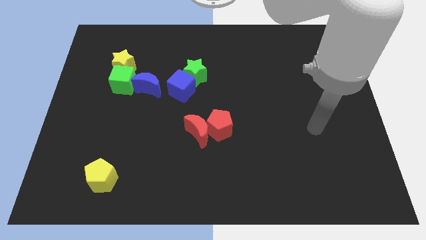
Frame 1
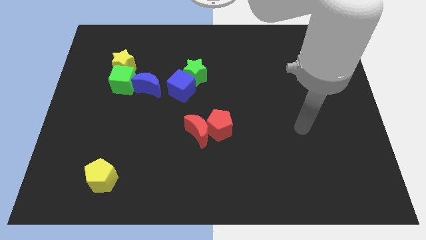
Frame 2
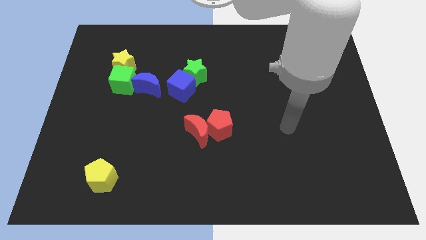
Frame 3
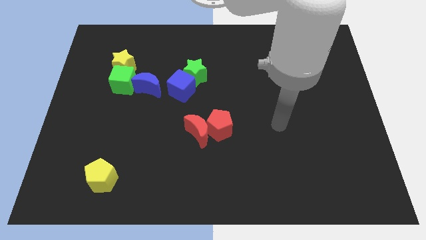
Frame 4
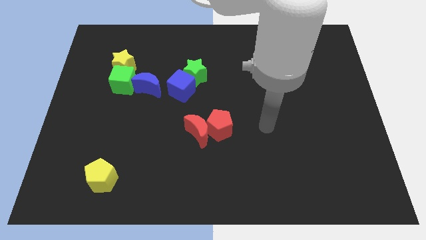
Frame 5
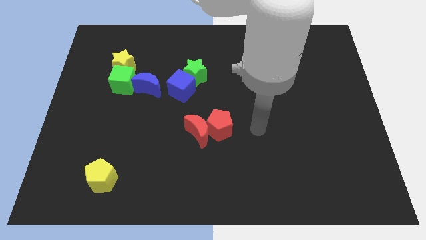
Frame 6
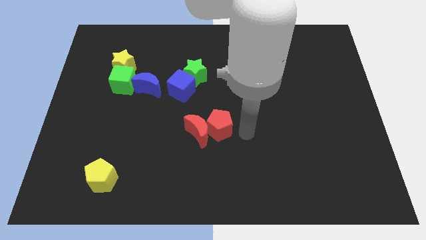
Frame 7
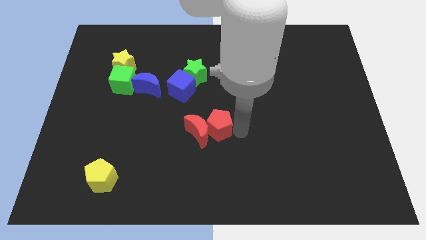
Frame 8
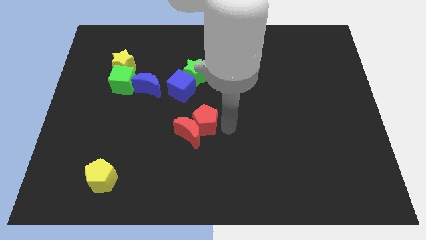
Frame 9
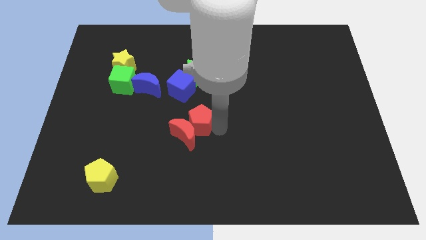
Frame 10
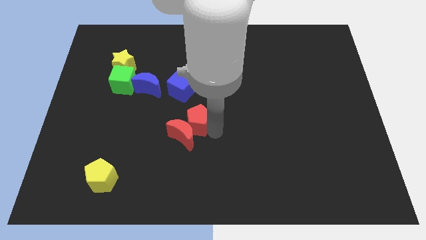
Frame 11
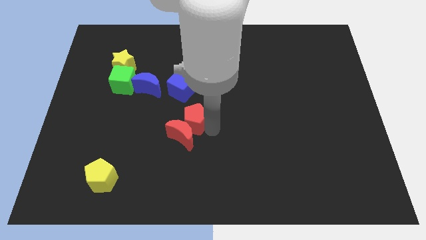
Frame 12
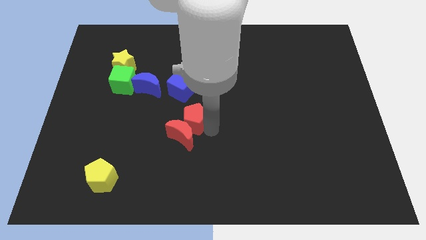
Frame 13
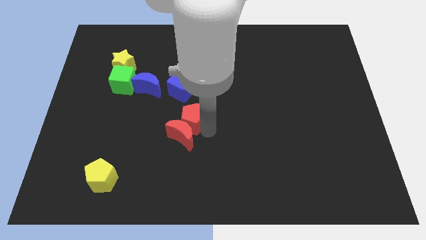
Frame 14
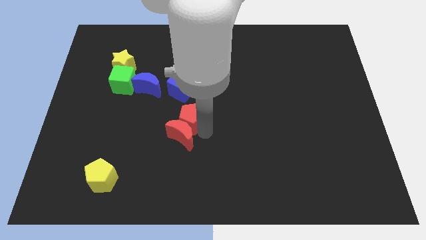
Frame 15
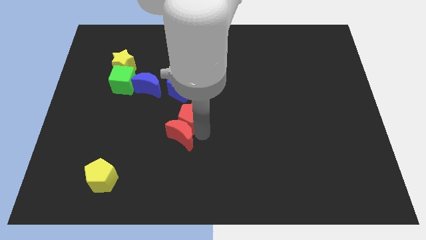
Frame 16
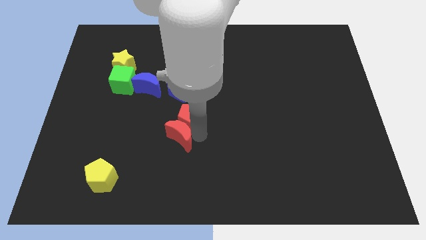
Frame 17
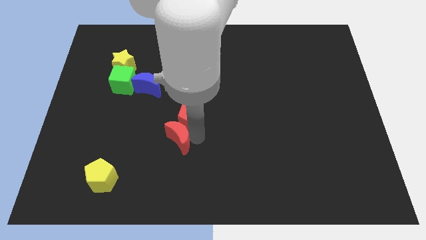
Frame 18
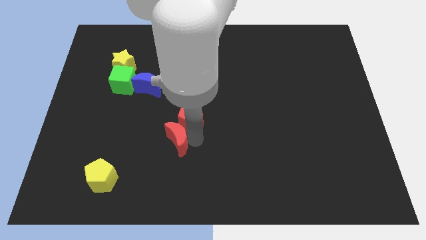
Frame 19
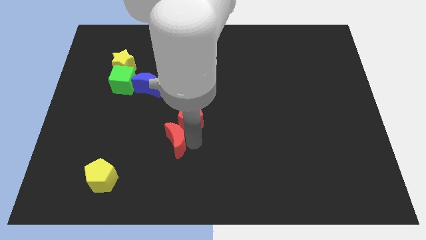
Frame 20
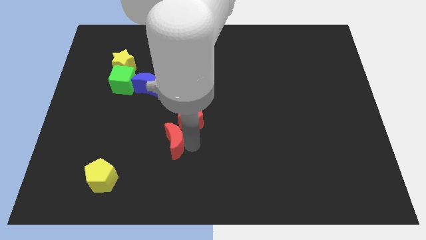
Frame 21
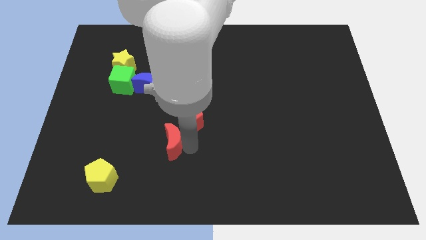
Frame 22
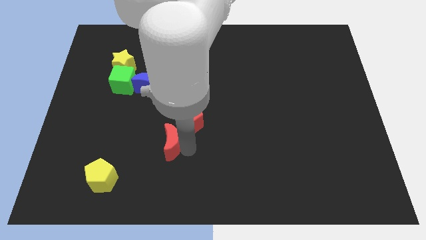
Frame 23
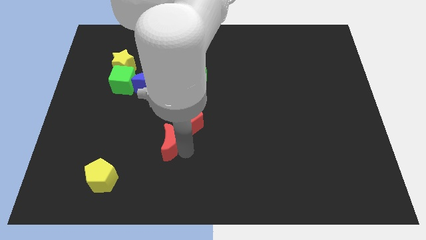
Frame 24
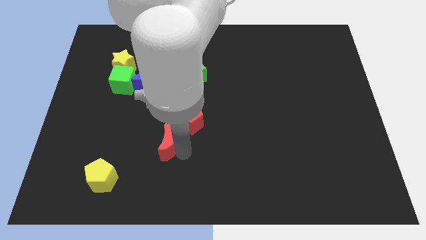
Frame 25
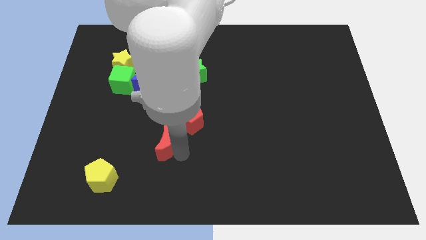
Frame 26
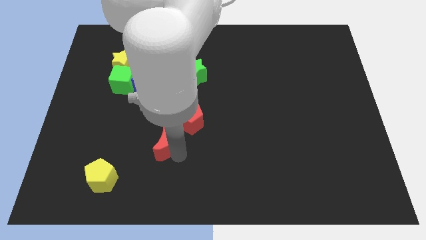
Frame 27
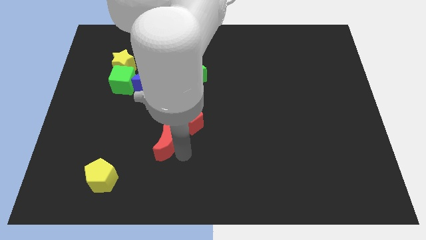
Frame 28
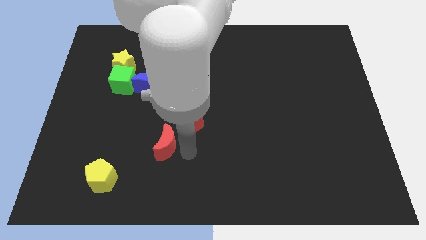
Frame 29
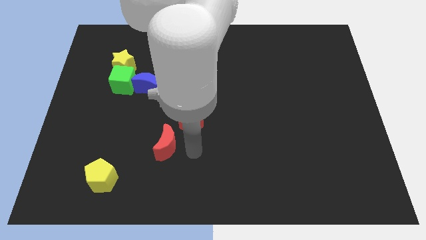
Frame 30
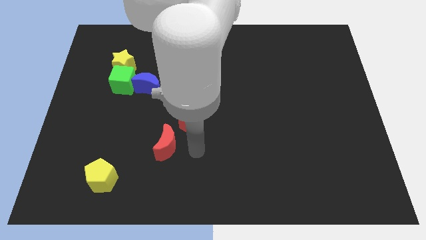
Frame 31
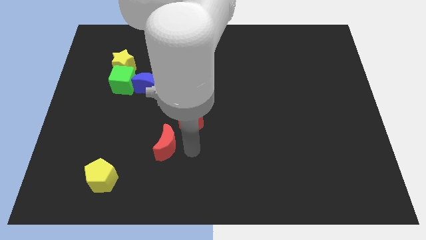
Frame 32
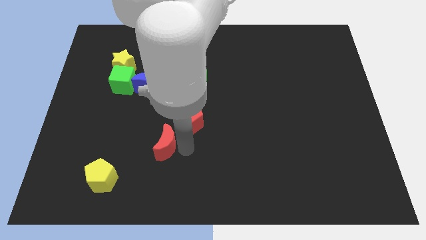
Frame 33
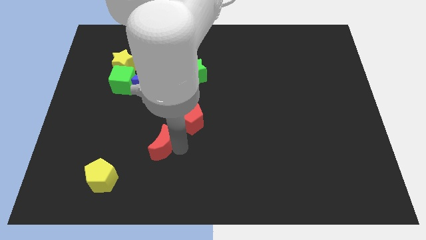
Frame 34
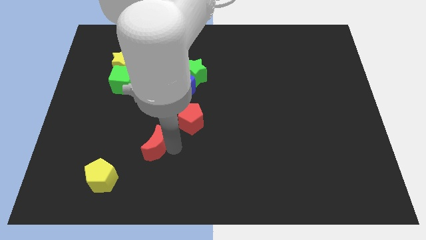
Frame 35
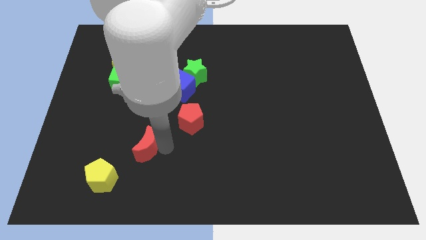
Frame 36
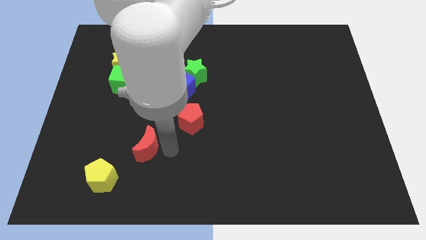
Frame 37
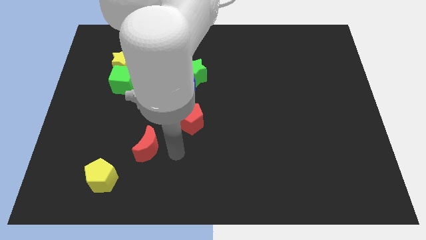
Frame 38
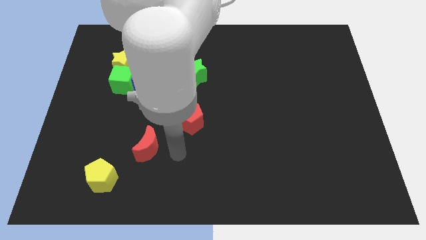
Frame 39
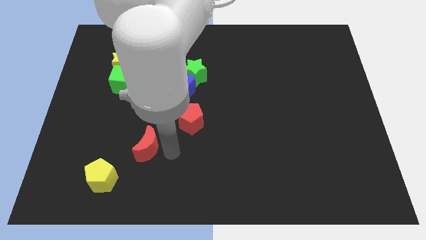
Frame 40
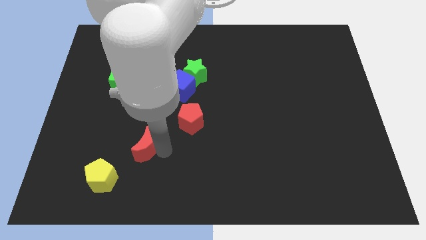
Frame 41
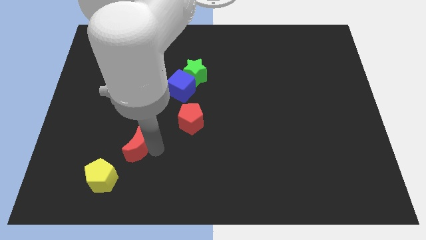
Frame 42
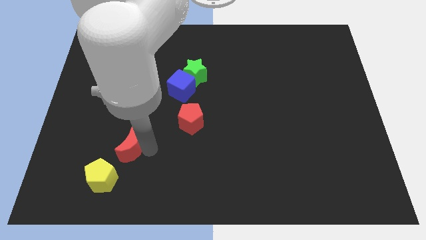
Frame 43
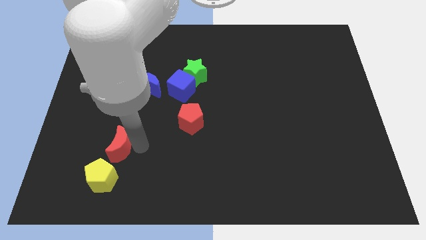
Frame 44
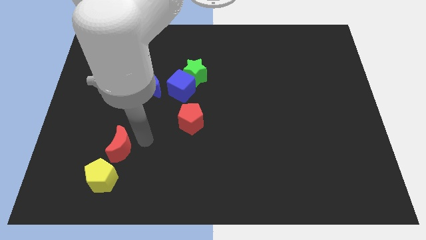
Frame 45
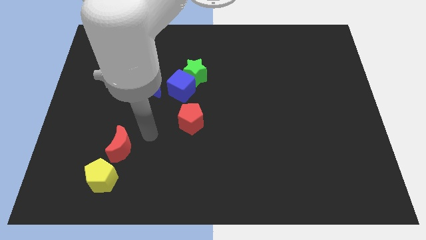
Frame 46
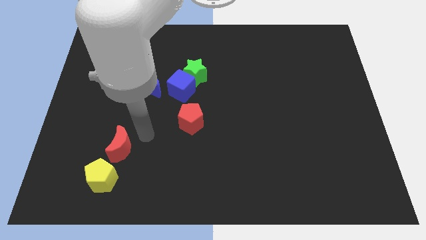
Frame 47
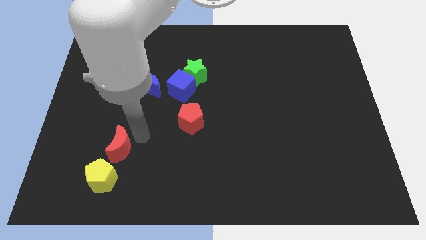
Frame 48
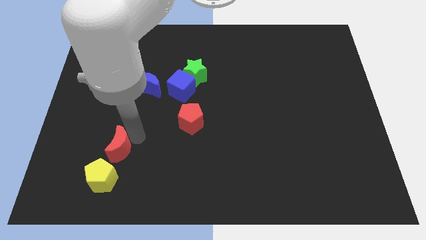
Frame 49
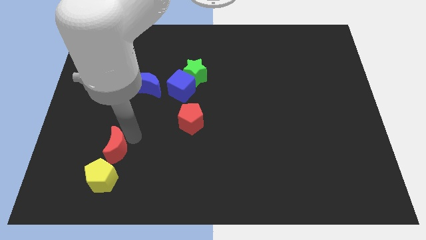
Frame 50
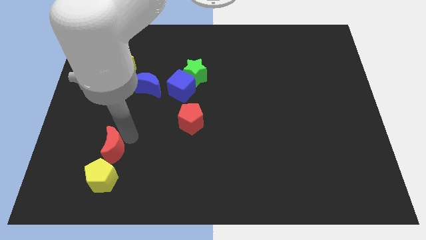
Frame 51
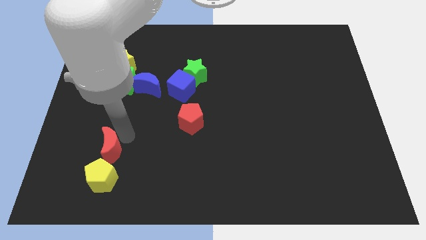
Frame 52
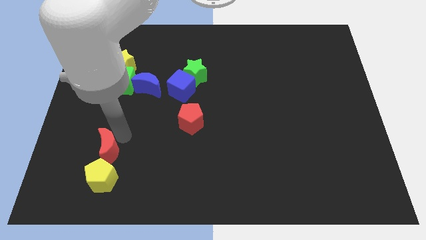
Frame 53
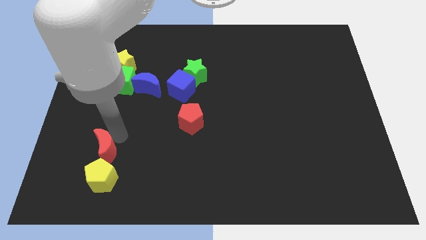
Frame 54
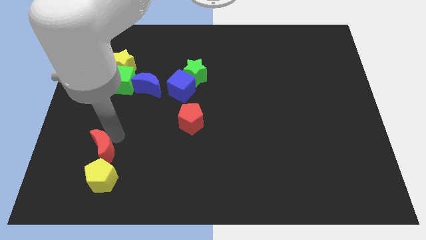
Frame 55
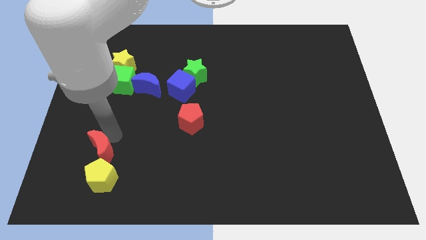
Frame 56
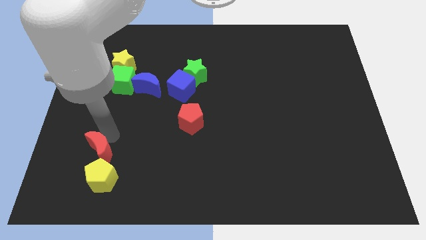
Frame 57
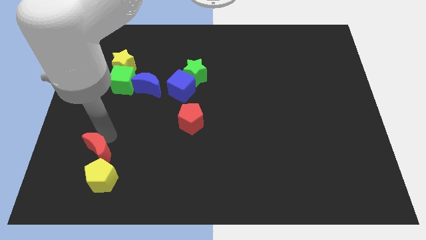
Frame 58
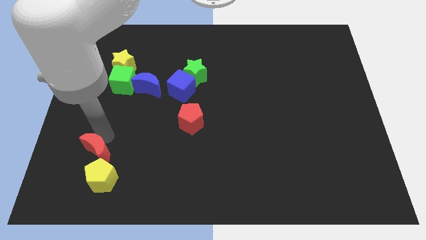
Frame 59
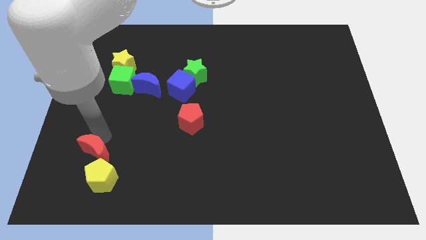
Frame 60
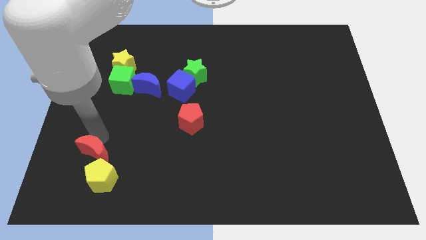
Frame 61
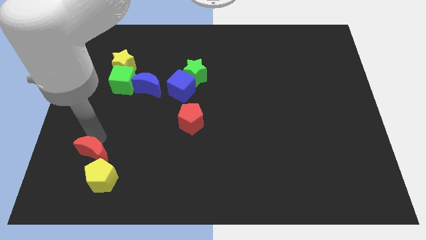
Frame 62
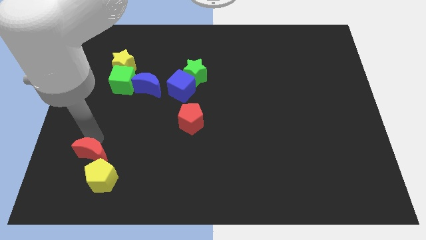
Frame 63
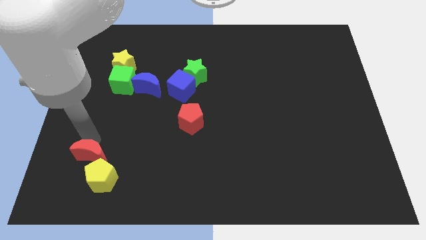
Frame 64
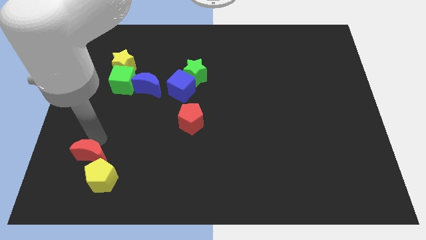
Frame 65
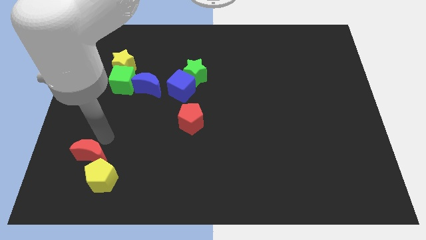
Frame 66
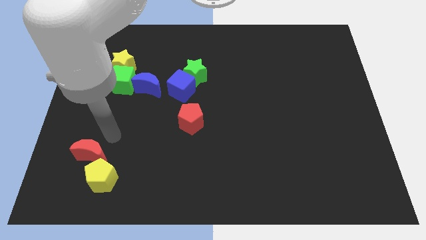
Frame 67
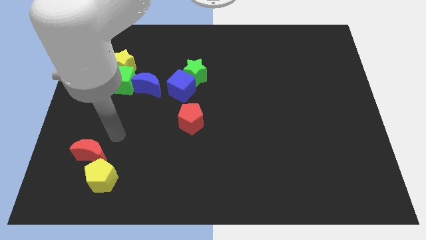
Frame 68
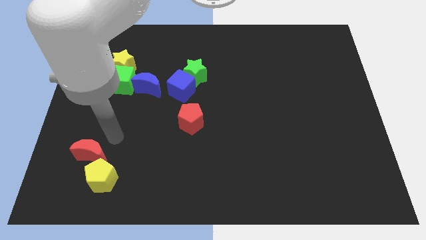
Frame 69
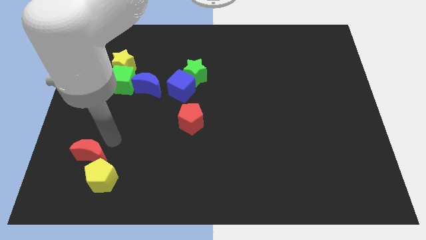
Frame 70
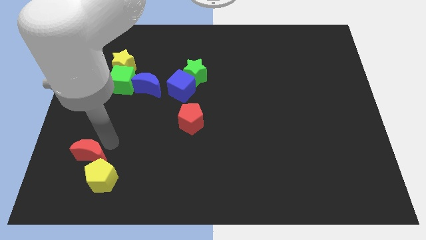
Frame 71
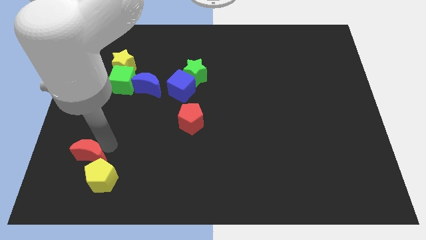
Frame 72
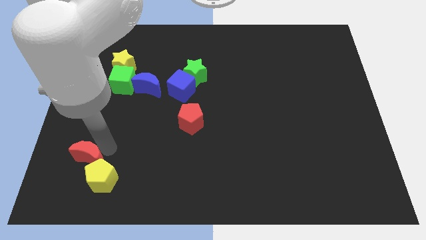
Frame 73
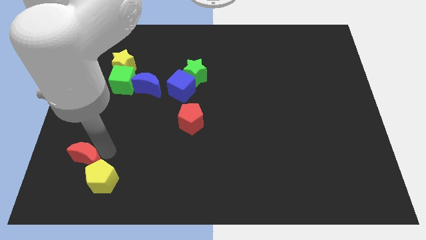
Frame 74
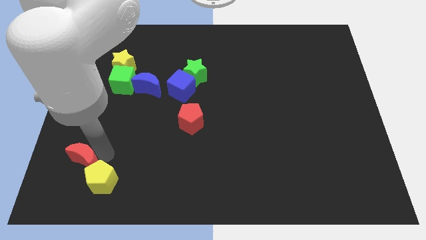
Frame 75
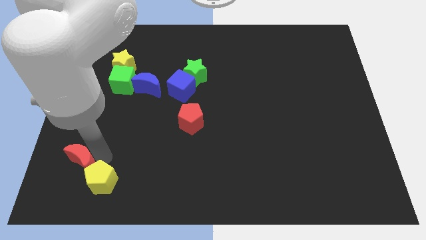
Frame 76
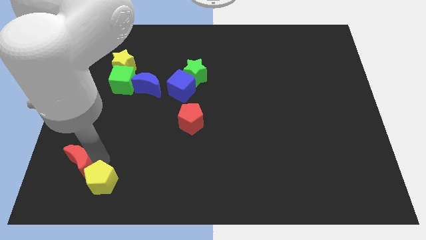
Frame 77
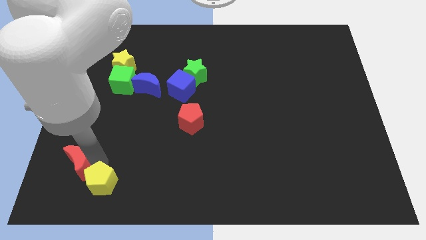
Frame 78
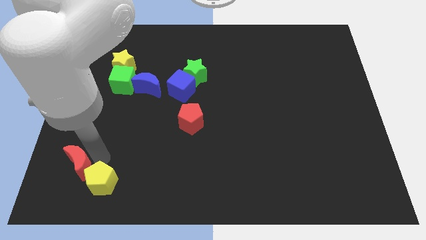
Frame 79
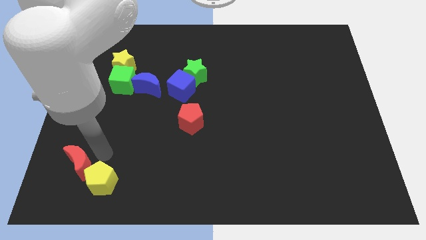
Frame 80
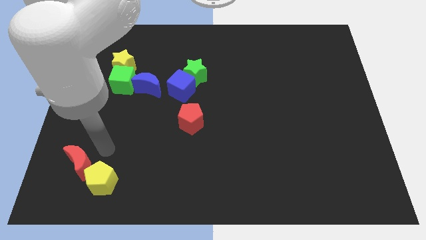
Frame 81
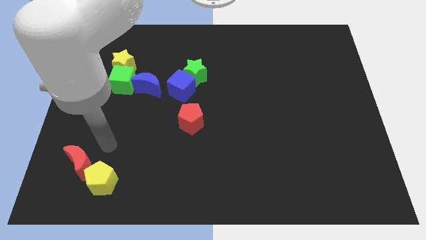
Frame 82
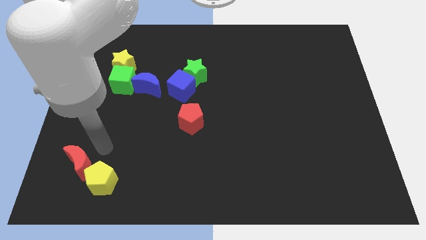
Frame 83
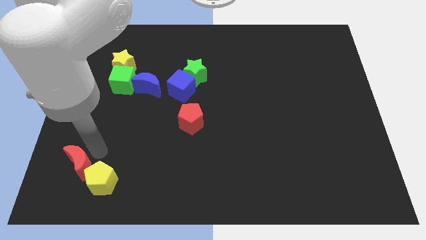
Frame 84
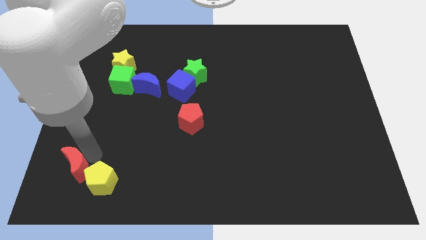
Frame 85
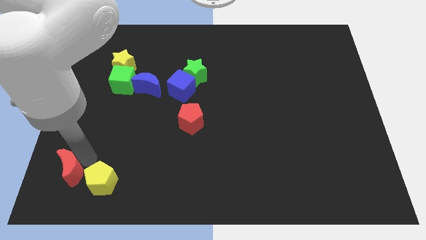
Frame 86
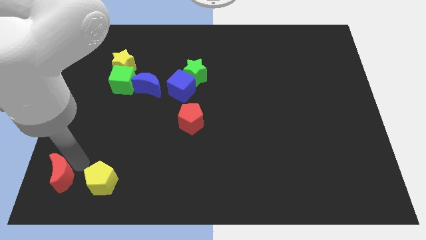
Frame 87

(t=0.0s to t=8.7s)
move the red moon to the bottom left of the board
